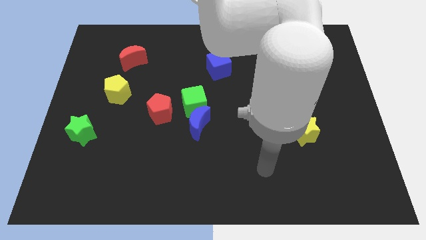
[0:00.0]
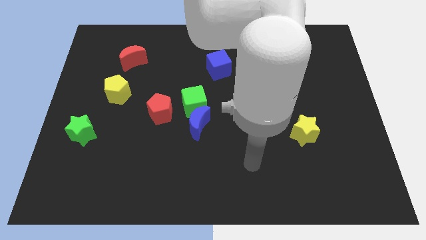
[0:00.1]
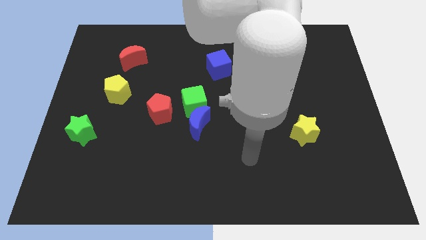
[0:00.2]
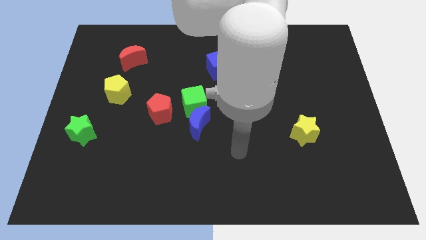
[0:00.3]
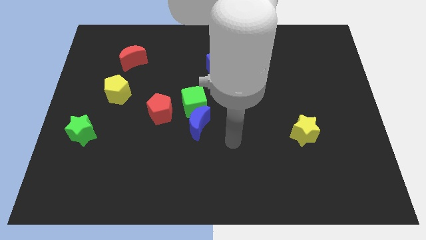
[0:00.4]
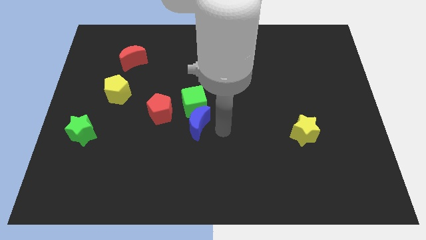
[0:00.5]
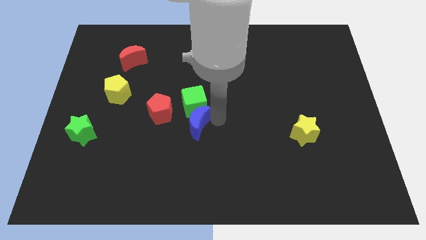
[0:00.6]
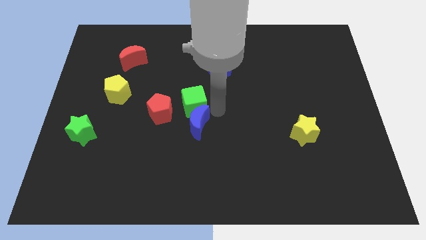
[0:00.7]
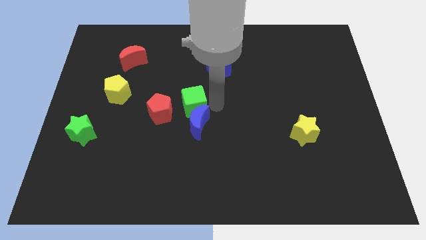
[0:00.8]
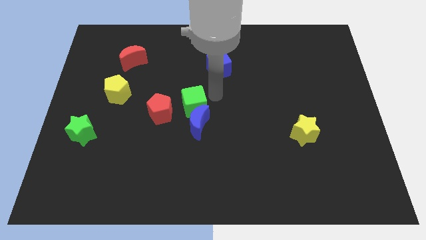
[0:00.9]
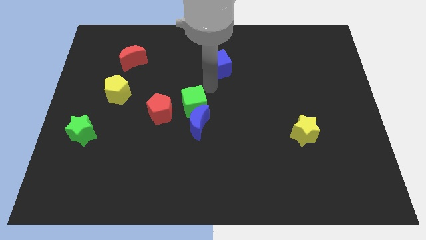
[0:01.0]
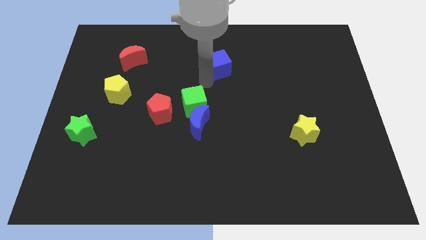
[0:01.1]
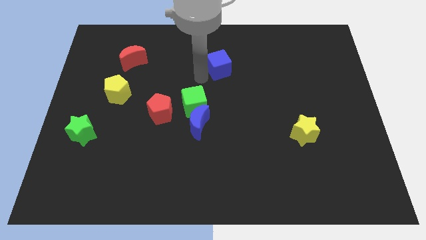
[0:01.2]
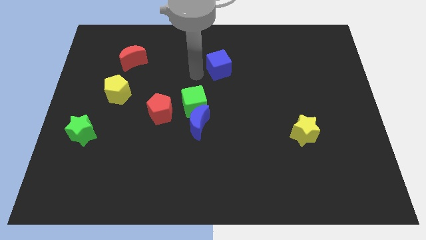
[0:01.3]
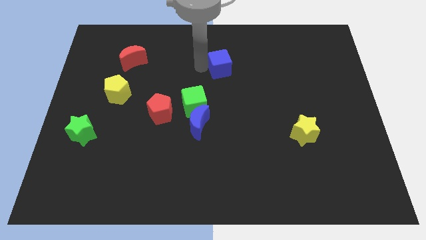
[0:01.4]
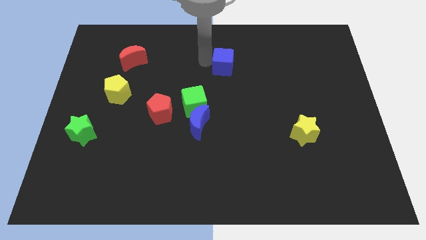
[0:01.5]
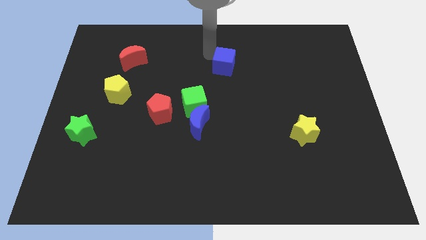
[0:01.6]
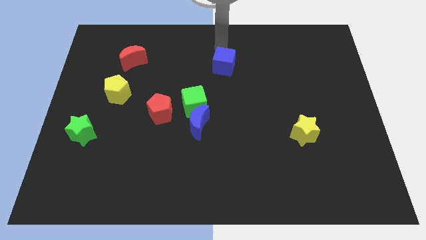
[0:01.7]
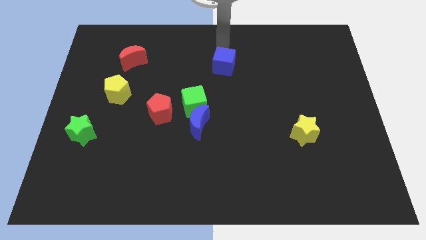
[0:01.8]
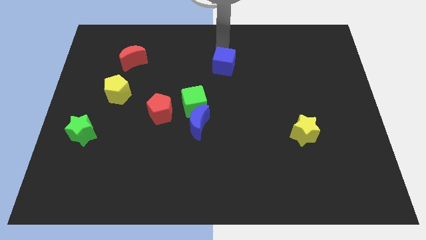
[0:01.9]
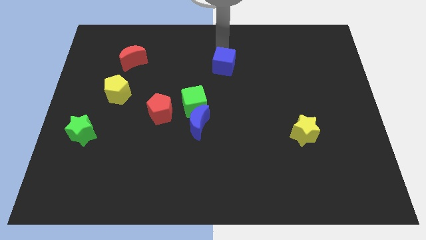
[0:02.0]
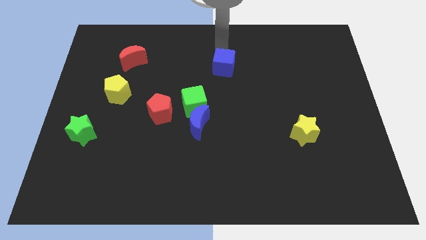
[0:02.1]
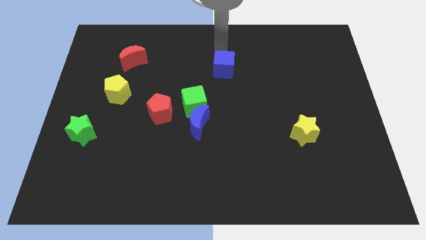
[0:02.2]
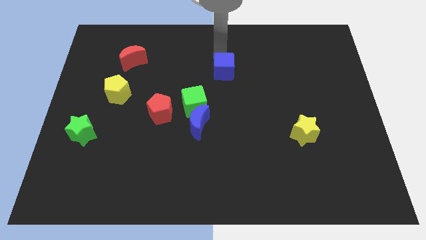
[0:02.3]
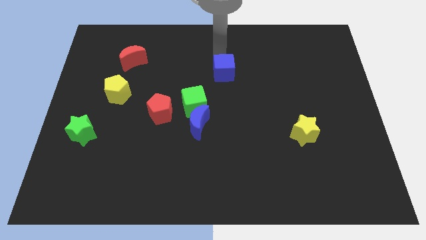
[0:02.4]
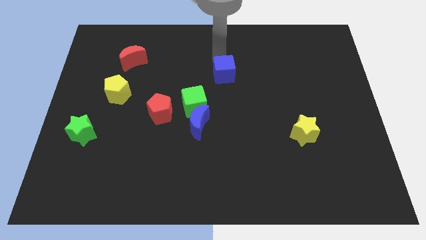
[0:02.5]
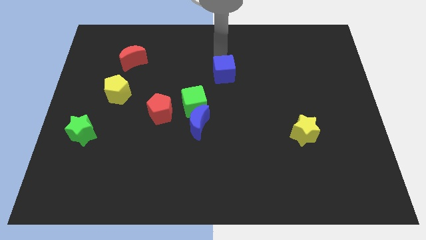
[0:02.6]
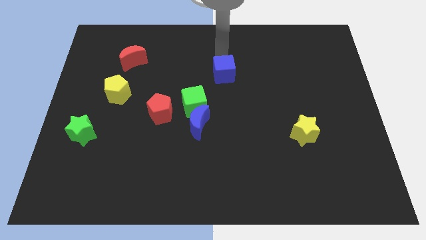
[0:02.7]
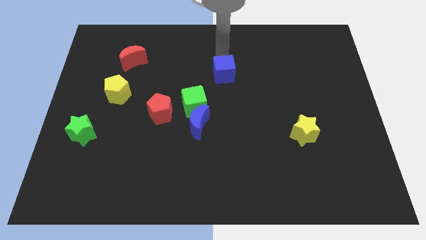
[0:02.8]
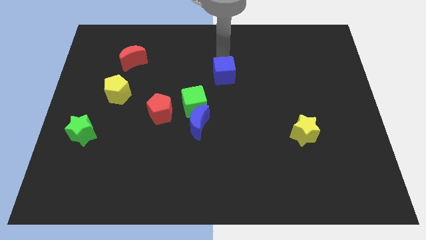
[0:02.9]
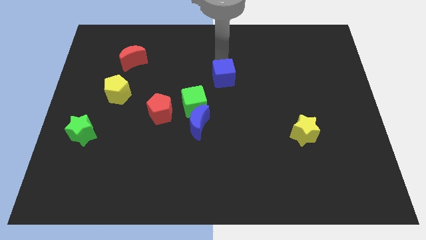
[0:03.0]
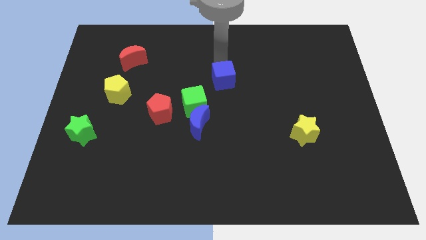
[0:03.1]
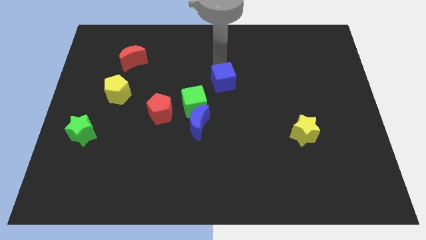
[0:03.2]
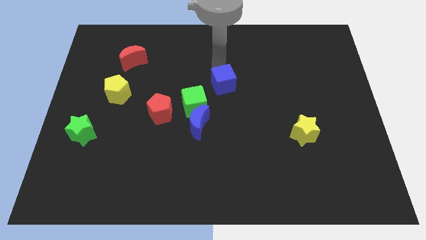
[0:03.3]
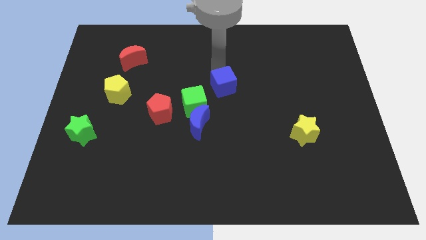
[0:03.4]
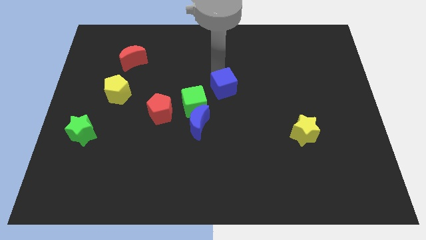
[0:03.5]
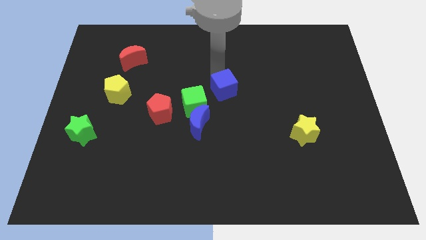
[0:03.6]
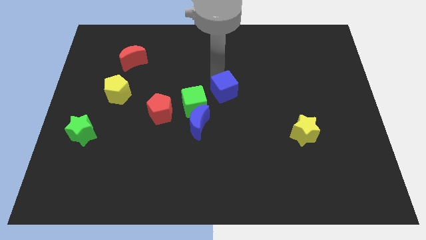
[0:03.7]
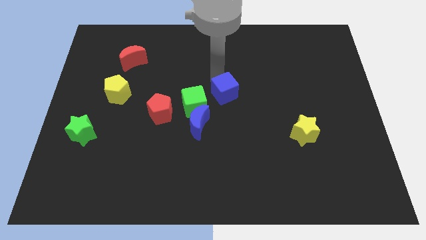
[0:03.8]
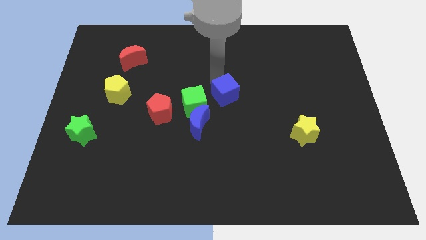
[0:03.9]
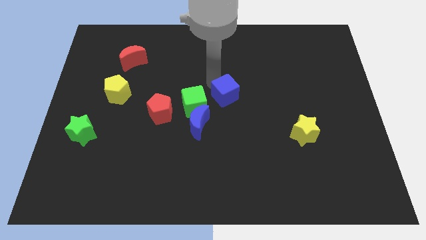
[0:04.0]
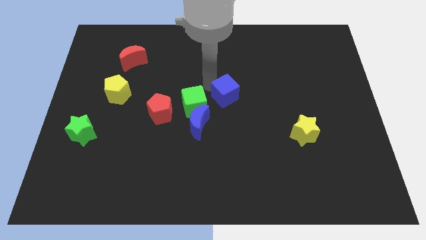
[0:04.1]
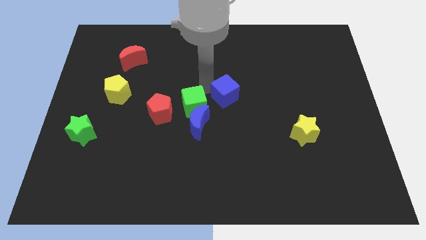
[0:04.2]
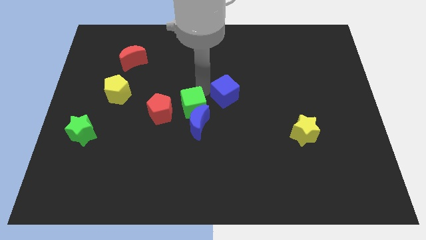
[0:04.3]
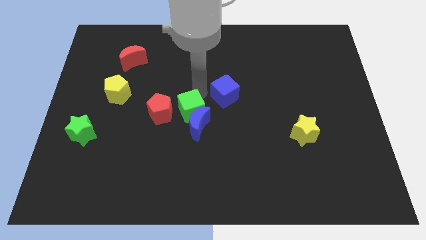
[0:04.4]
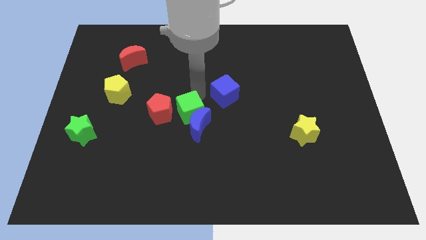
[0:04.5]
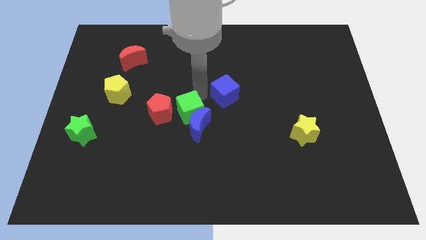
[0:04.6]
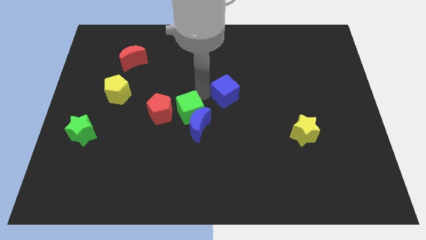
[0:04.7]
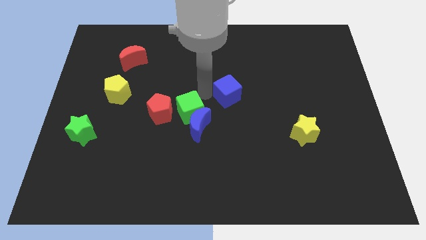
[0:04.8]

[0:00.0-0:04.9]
slightly slide the blue cube downwards and then right

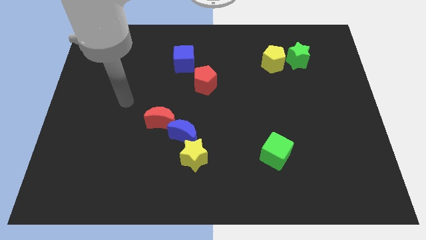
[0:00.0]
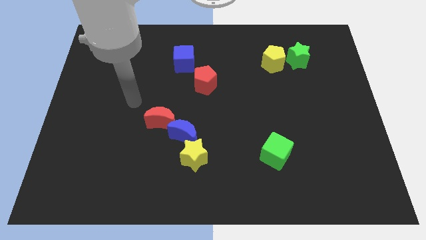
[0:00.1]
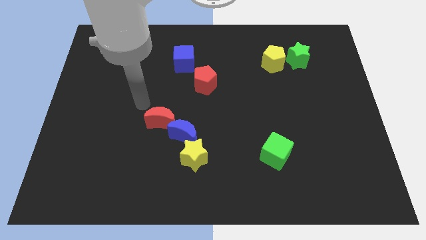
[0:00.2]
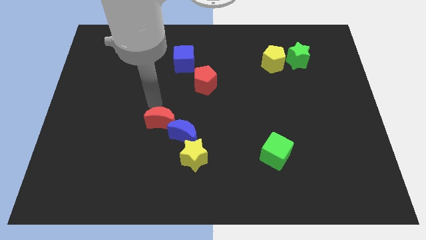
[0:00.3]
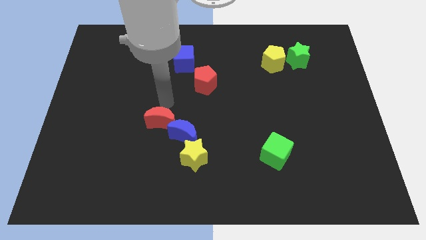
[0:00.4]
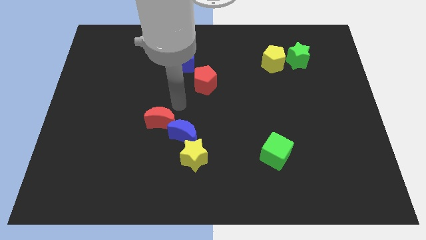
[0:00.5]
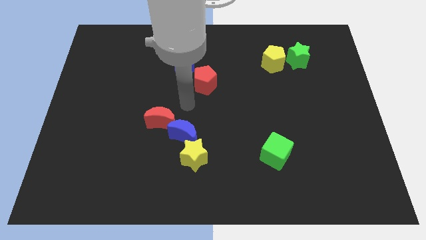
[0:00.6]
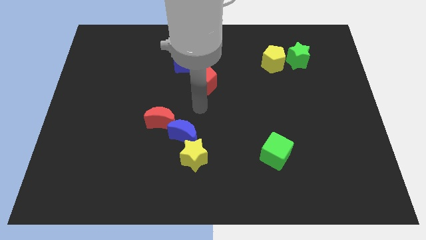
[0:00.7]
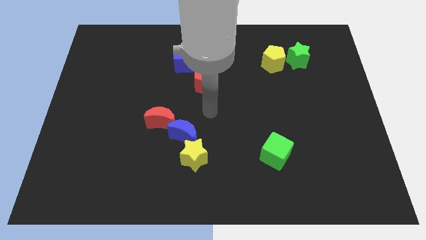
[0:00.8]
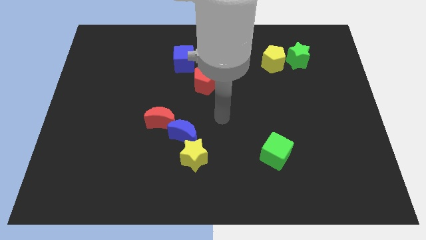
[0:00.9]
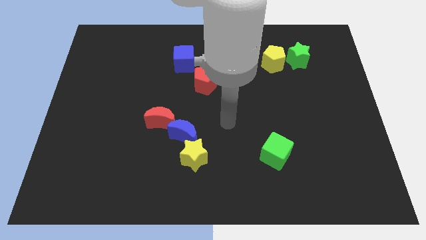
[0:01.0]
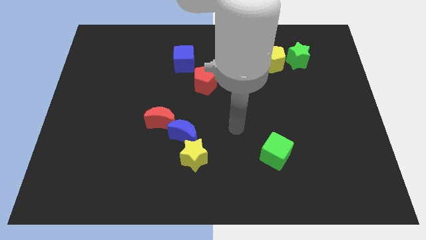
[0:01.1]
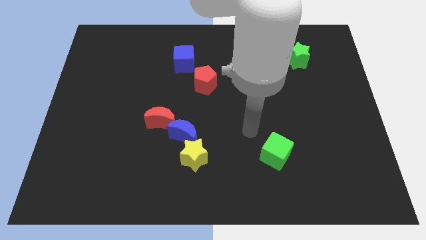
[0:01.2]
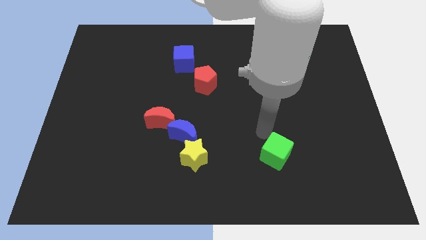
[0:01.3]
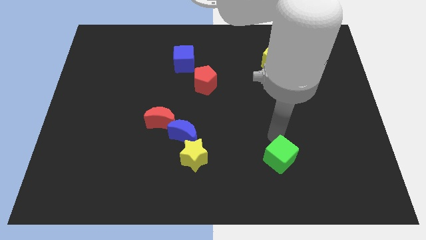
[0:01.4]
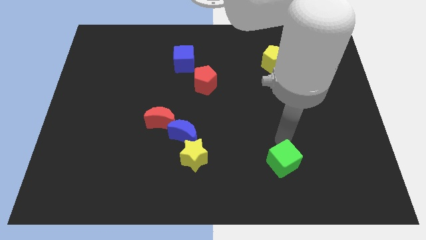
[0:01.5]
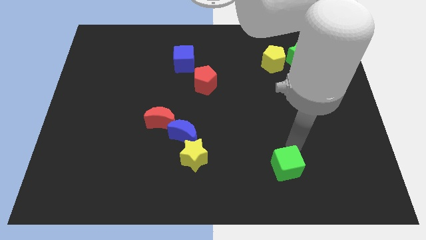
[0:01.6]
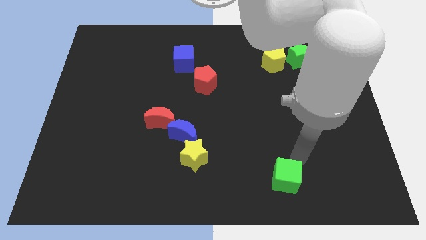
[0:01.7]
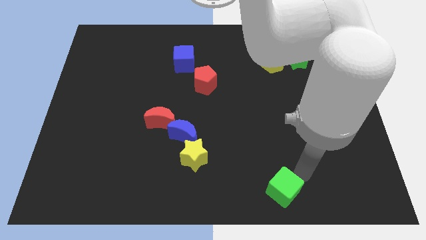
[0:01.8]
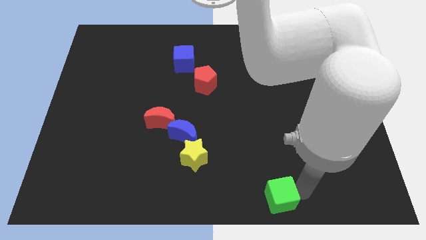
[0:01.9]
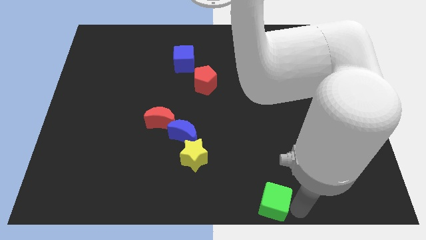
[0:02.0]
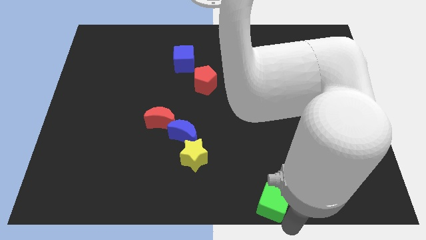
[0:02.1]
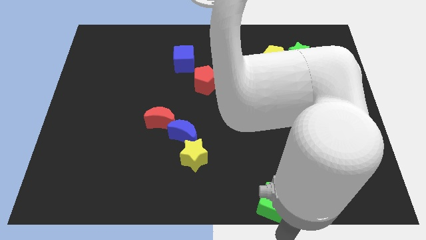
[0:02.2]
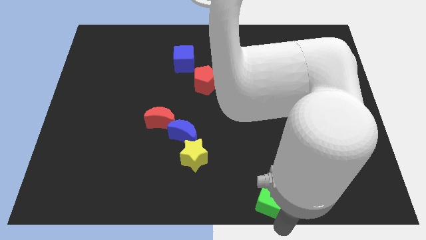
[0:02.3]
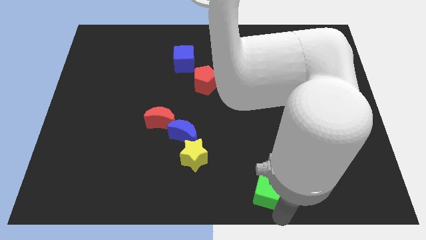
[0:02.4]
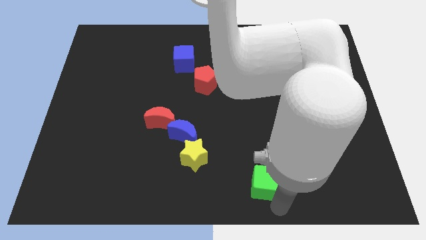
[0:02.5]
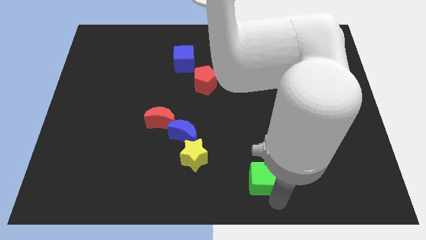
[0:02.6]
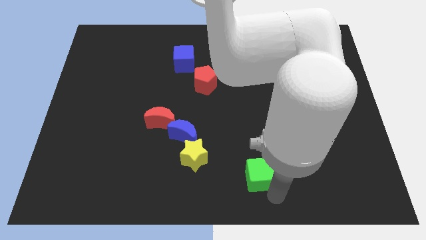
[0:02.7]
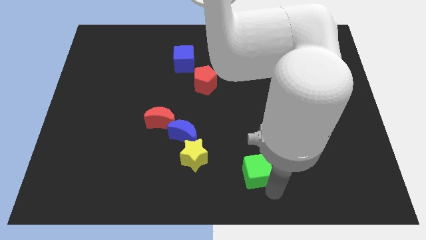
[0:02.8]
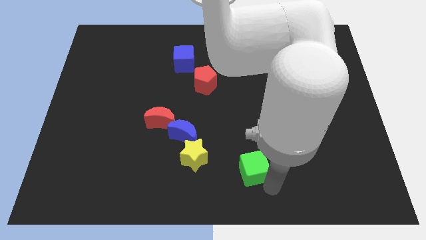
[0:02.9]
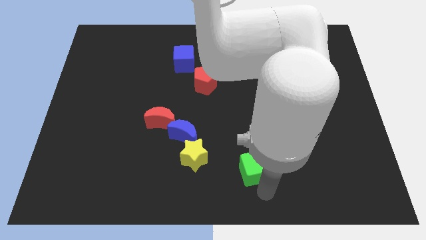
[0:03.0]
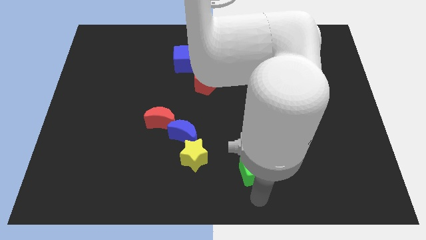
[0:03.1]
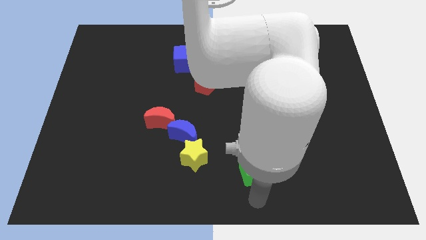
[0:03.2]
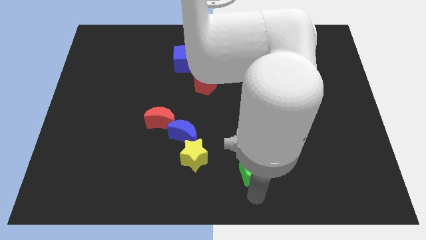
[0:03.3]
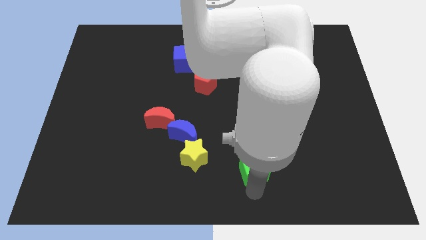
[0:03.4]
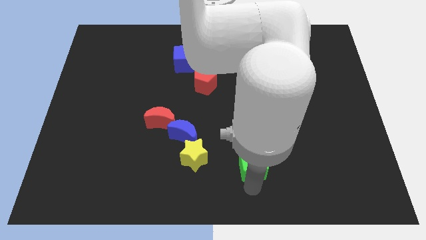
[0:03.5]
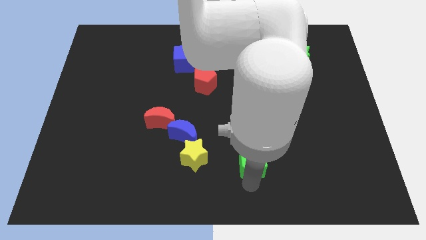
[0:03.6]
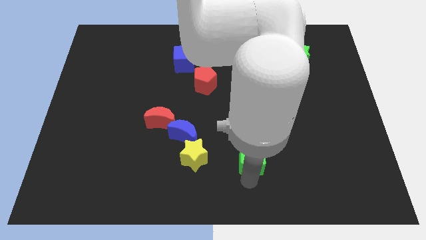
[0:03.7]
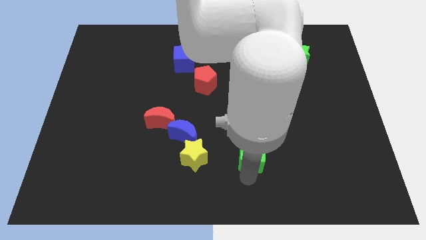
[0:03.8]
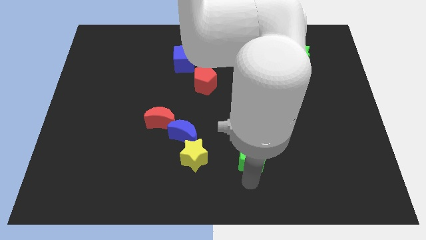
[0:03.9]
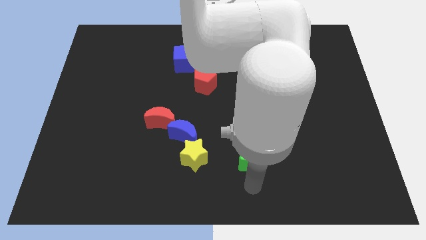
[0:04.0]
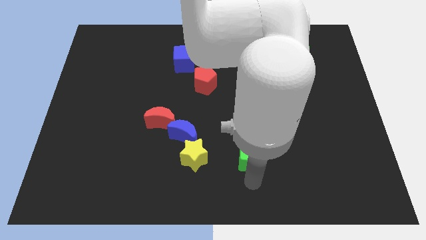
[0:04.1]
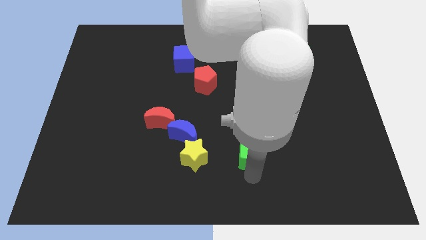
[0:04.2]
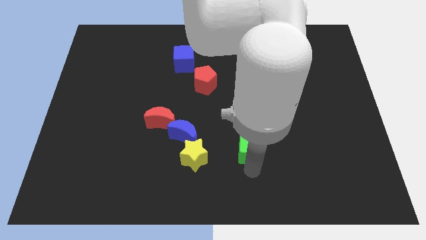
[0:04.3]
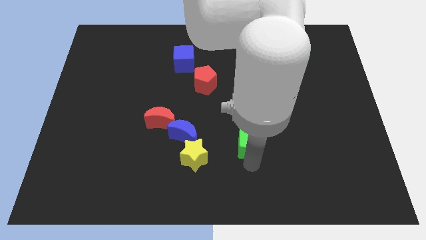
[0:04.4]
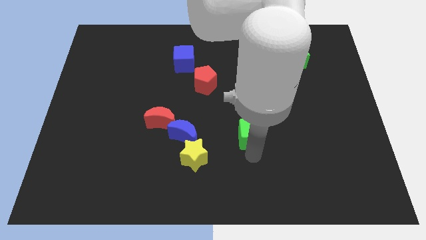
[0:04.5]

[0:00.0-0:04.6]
slightly slide the green cube upwards and left
